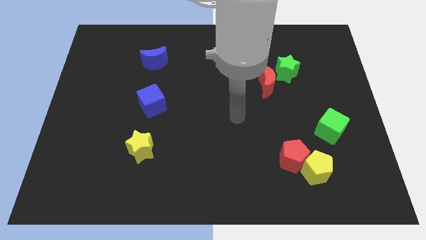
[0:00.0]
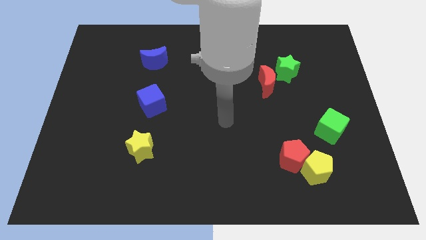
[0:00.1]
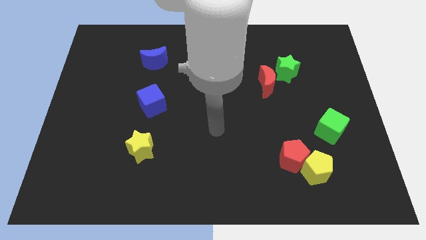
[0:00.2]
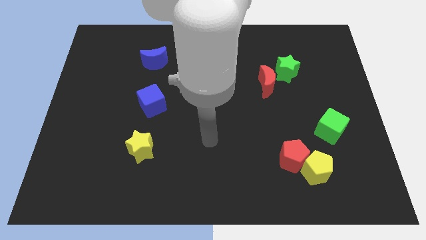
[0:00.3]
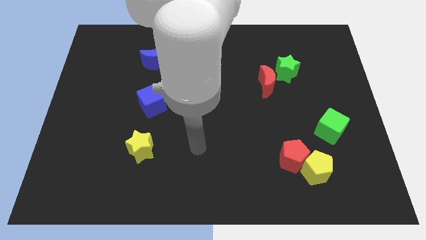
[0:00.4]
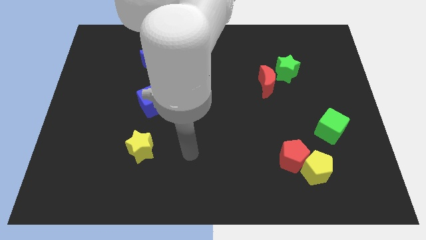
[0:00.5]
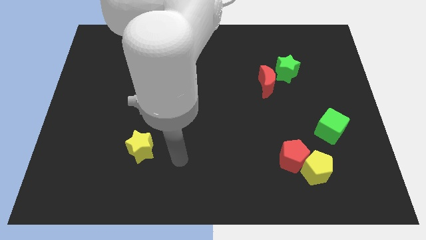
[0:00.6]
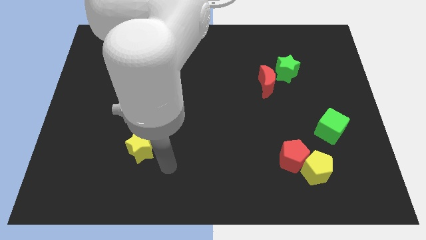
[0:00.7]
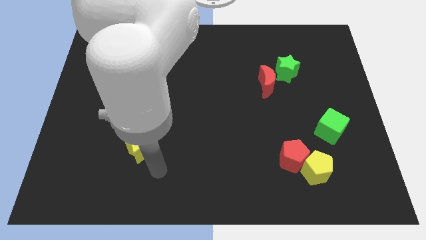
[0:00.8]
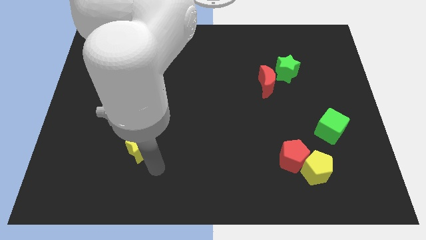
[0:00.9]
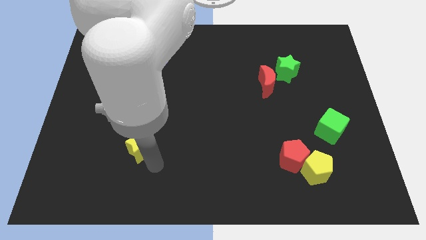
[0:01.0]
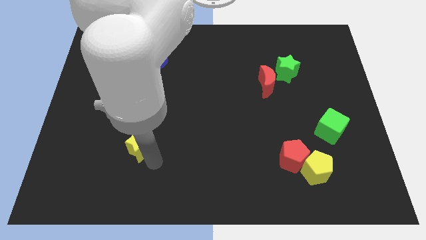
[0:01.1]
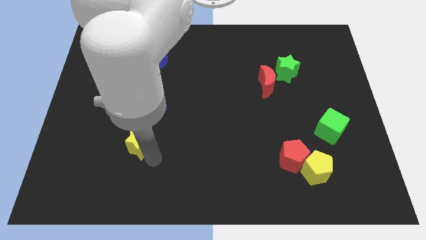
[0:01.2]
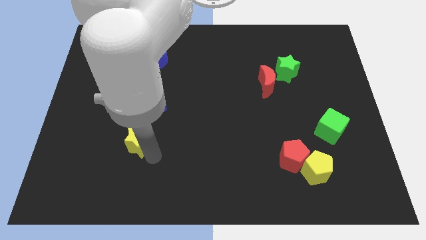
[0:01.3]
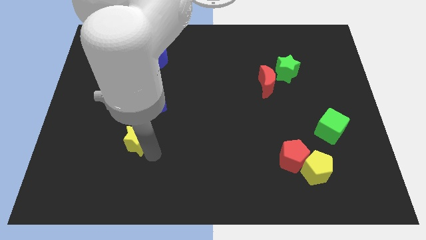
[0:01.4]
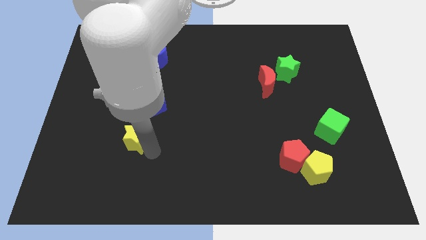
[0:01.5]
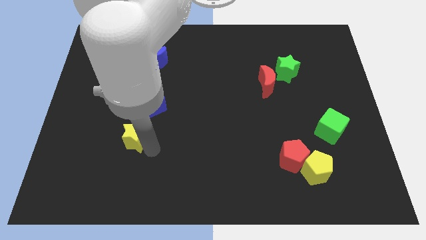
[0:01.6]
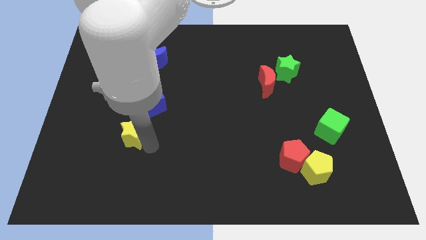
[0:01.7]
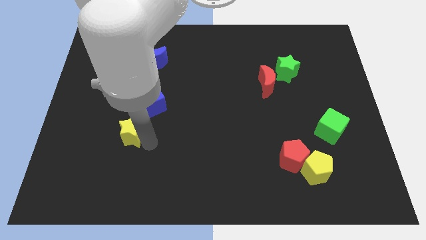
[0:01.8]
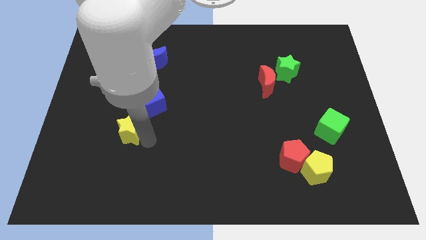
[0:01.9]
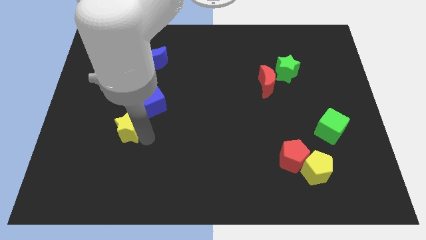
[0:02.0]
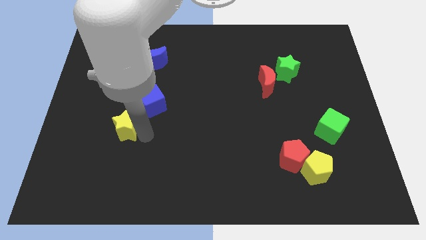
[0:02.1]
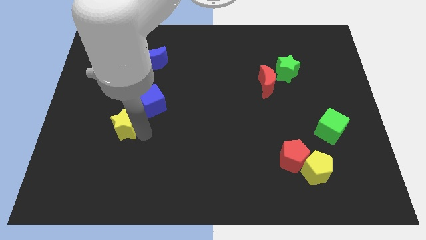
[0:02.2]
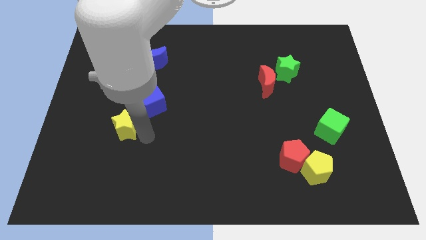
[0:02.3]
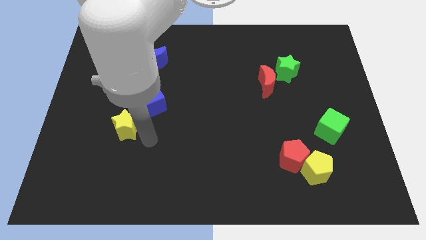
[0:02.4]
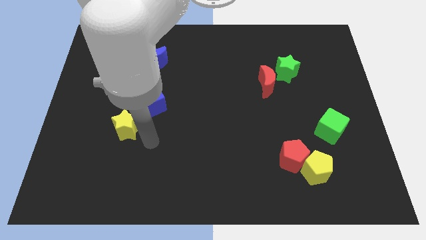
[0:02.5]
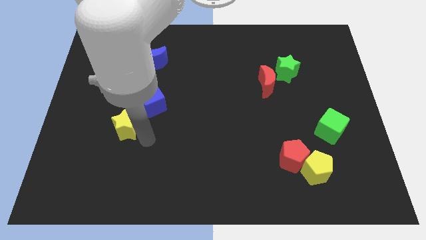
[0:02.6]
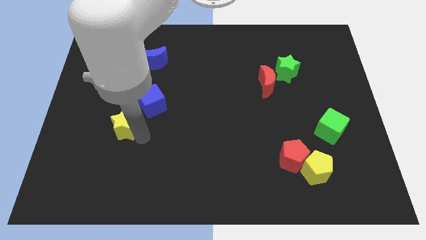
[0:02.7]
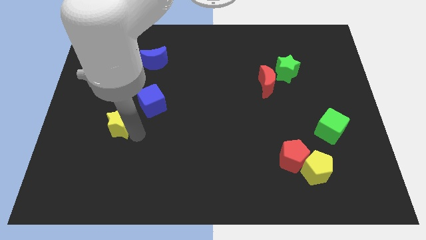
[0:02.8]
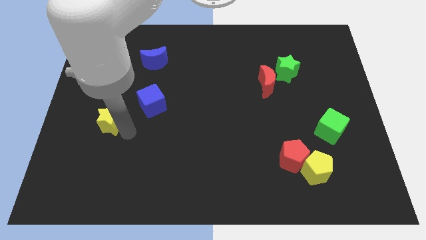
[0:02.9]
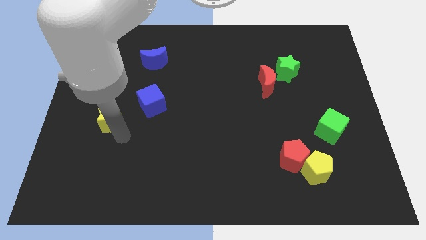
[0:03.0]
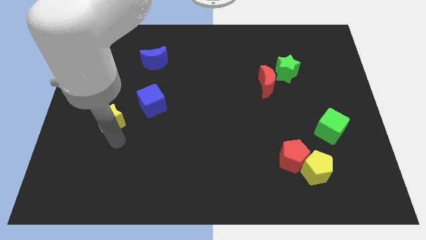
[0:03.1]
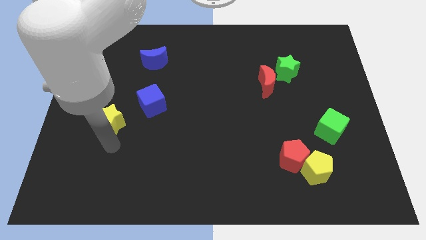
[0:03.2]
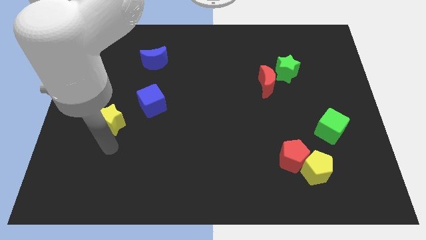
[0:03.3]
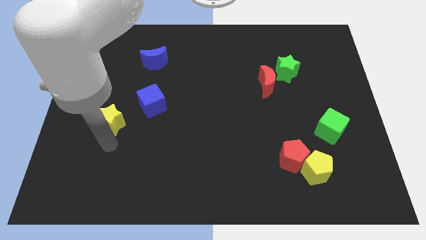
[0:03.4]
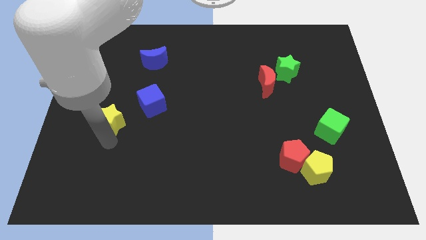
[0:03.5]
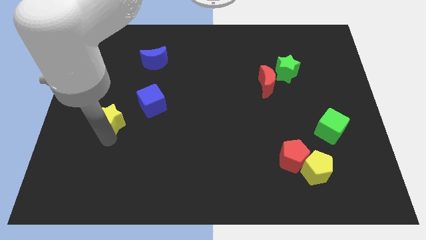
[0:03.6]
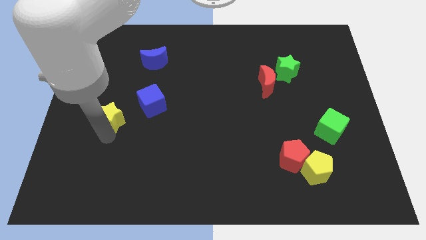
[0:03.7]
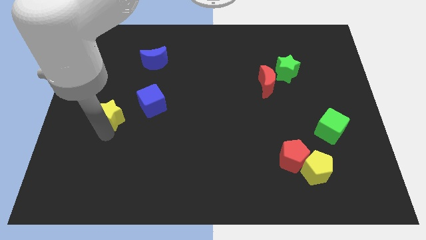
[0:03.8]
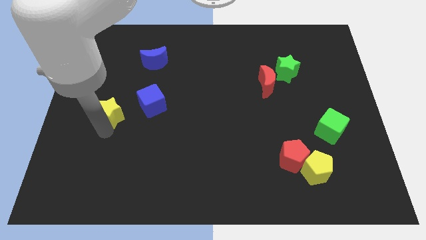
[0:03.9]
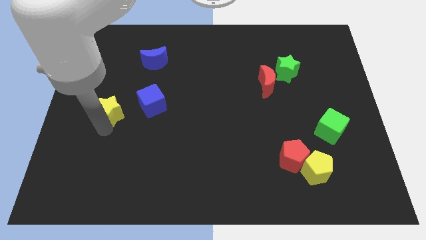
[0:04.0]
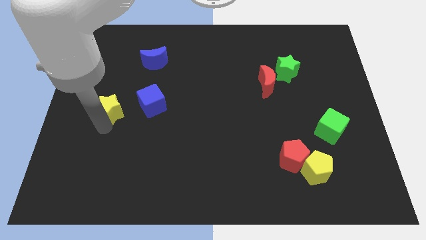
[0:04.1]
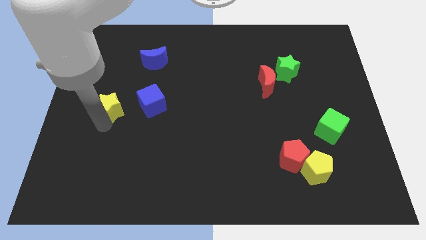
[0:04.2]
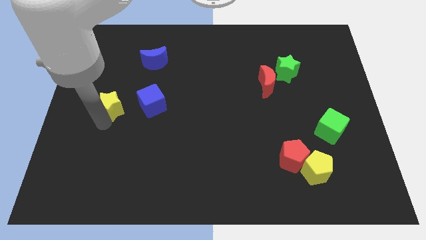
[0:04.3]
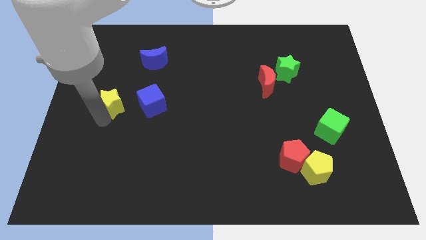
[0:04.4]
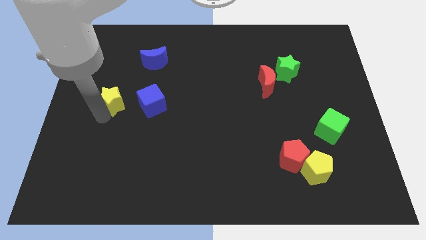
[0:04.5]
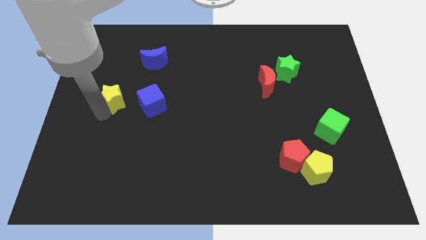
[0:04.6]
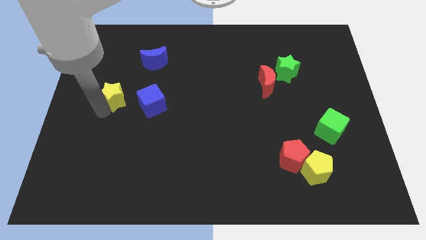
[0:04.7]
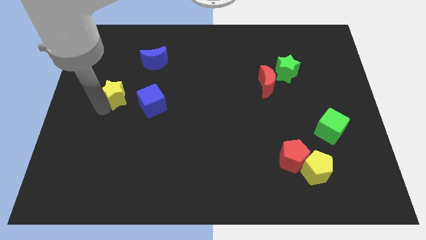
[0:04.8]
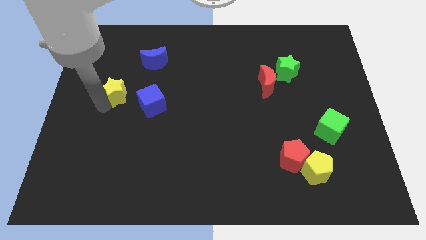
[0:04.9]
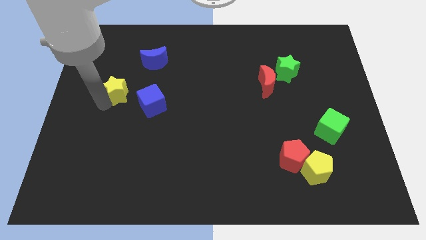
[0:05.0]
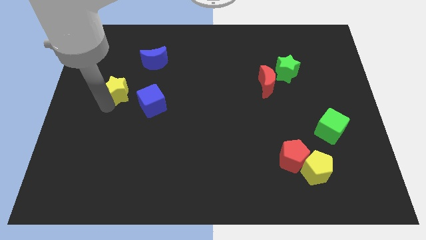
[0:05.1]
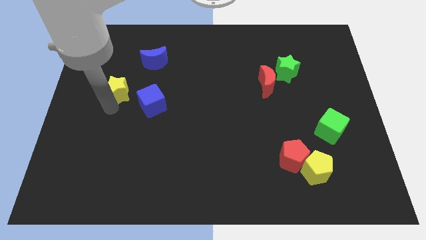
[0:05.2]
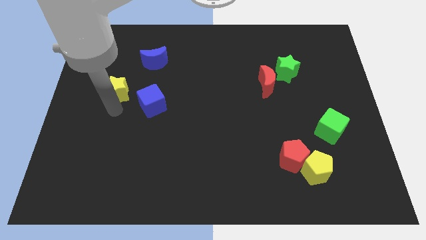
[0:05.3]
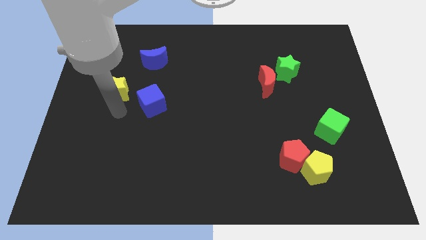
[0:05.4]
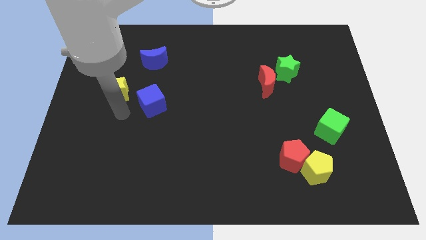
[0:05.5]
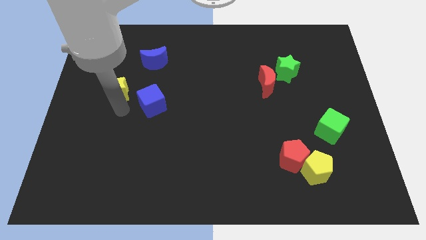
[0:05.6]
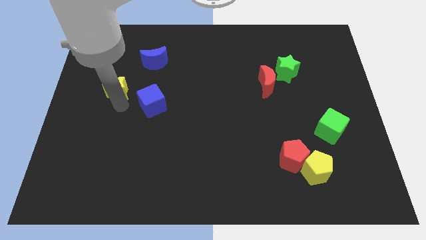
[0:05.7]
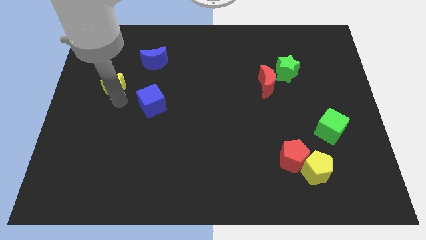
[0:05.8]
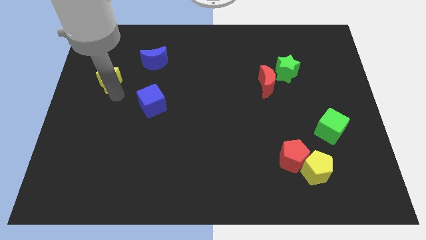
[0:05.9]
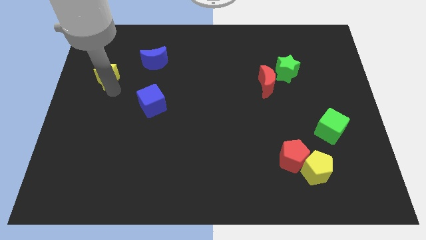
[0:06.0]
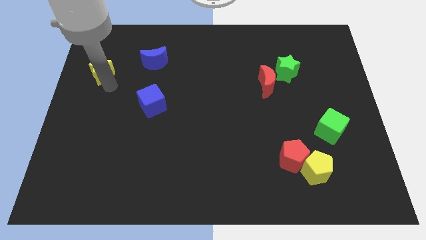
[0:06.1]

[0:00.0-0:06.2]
put the yellow star left of the blue moon

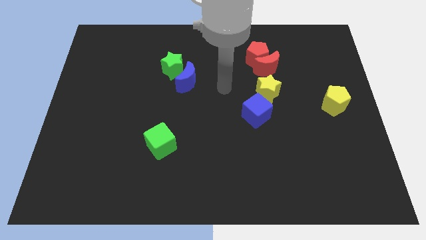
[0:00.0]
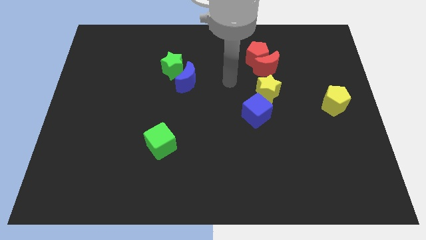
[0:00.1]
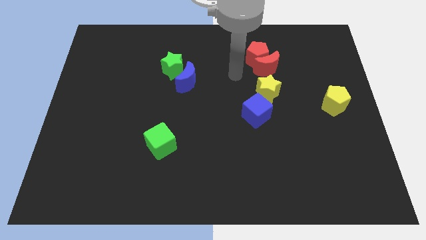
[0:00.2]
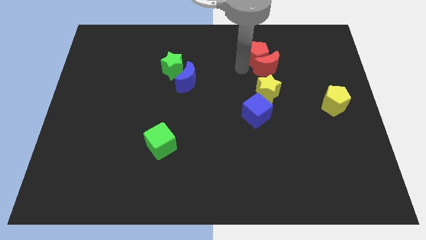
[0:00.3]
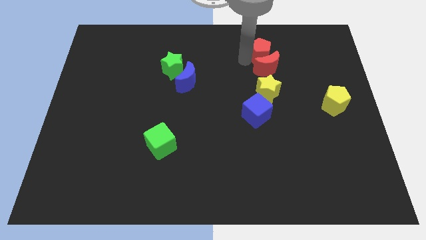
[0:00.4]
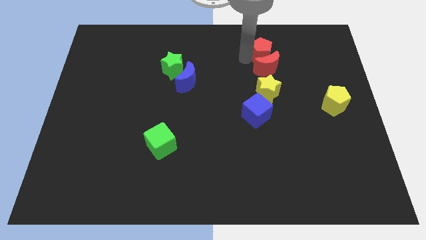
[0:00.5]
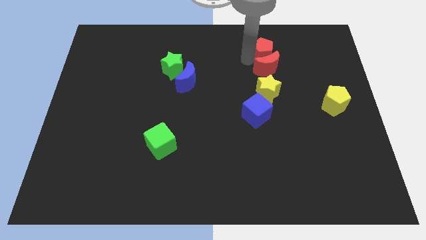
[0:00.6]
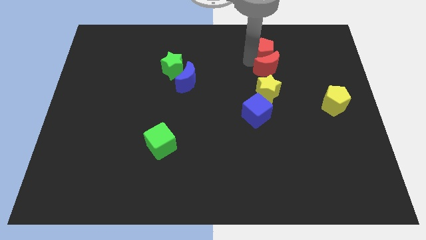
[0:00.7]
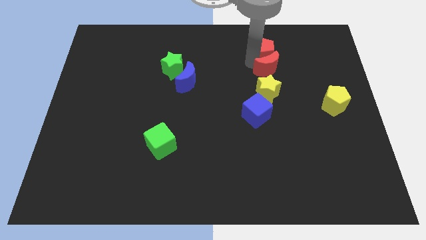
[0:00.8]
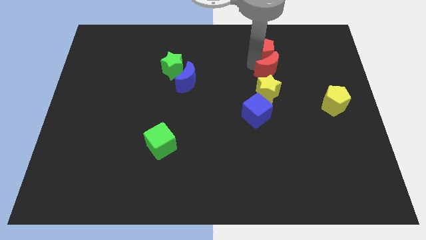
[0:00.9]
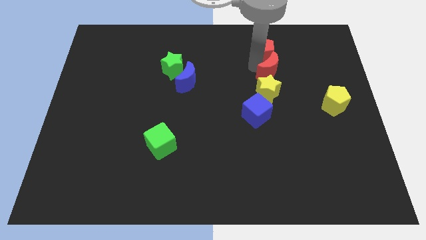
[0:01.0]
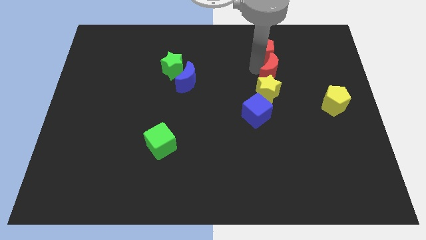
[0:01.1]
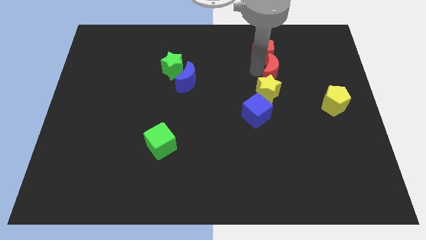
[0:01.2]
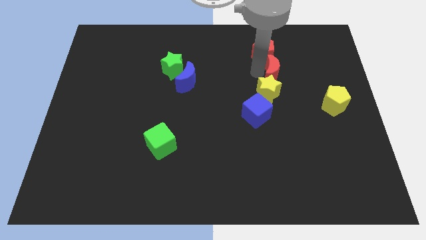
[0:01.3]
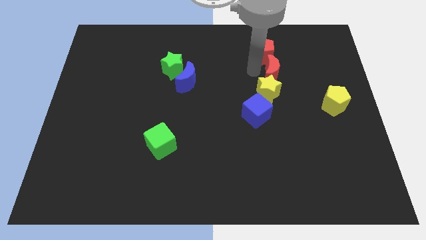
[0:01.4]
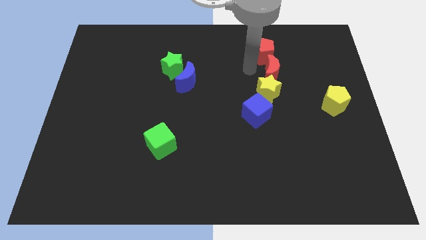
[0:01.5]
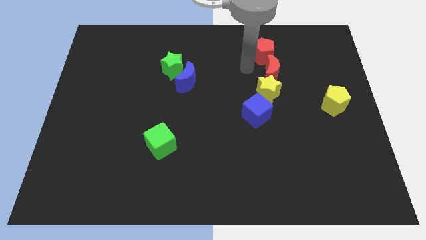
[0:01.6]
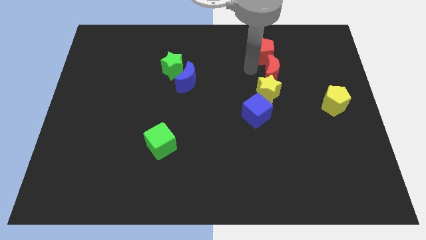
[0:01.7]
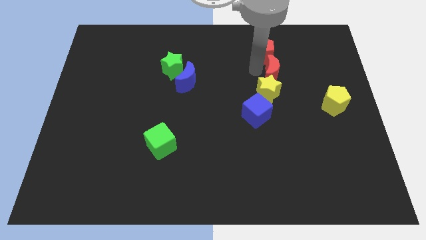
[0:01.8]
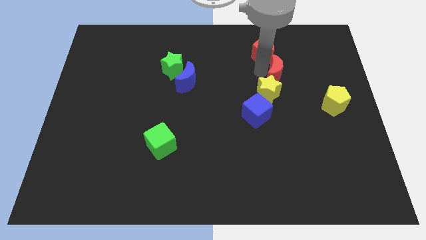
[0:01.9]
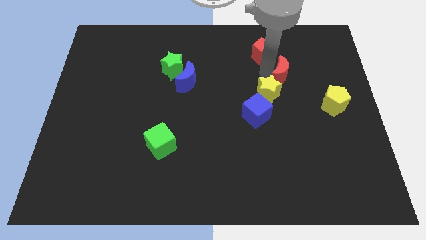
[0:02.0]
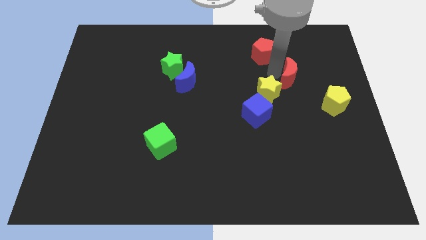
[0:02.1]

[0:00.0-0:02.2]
slide the red moon diagonally up and to the left of the yellow pentagon
